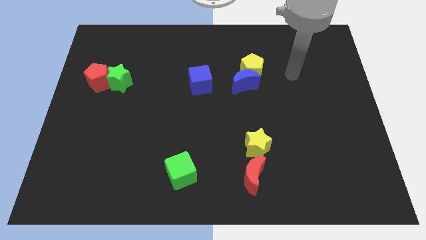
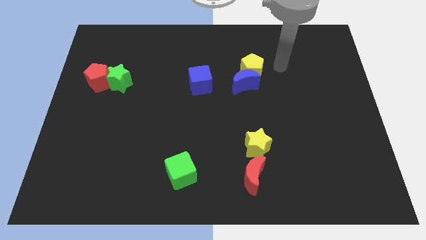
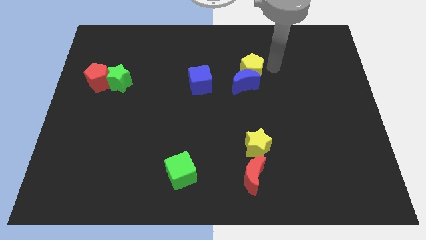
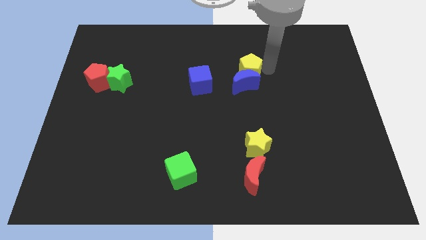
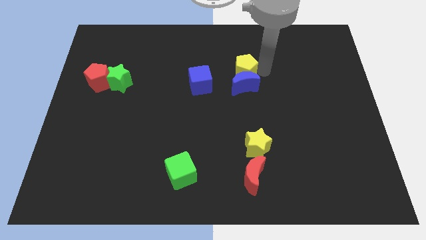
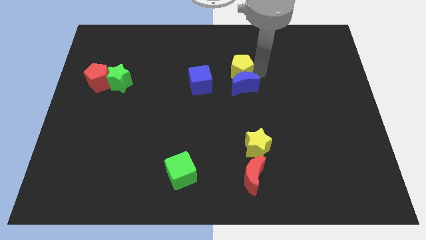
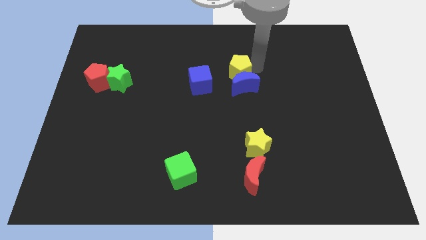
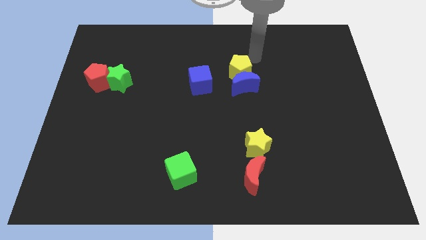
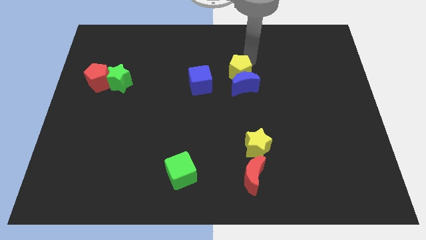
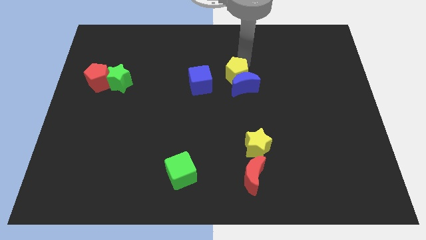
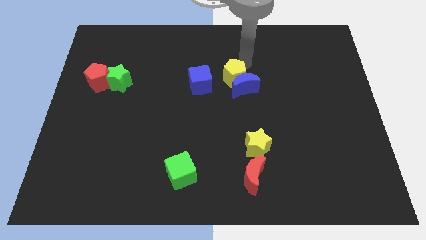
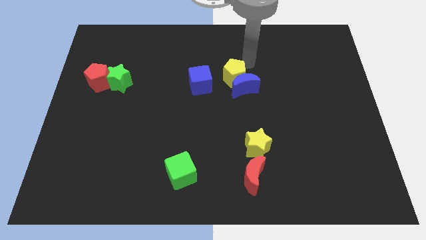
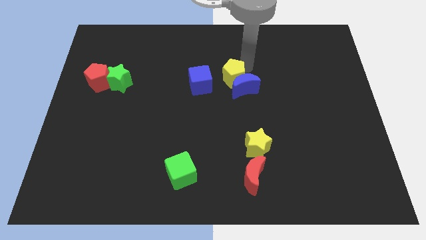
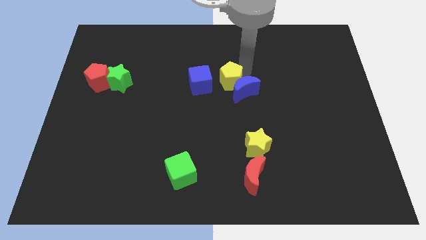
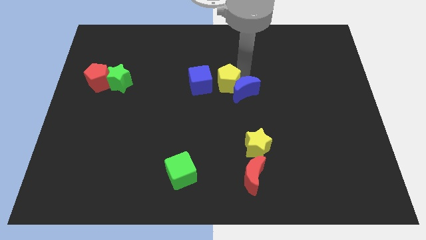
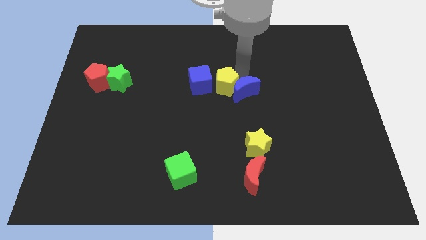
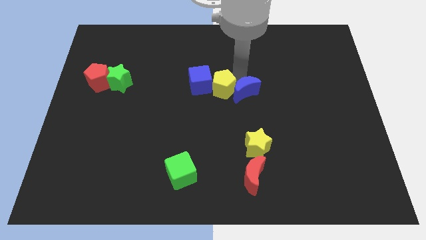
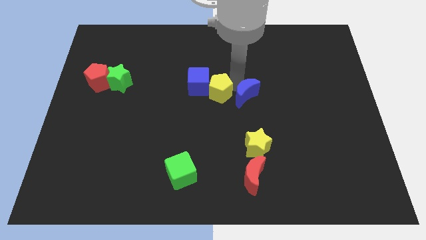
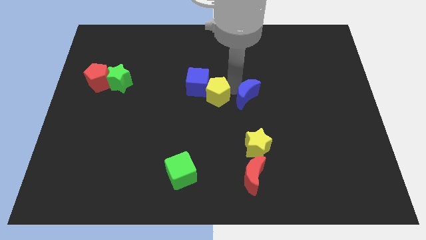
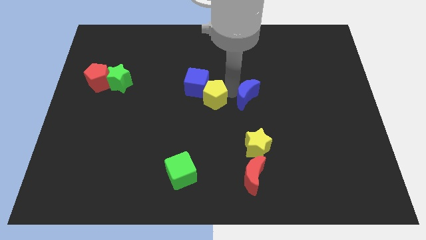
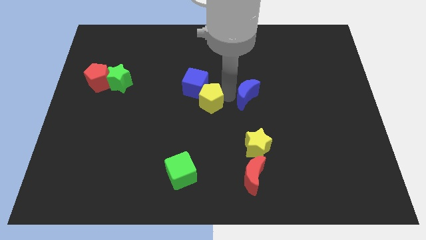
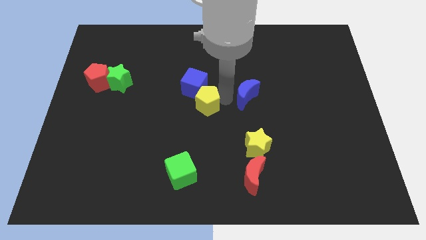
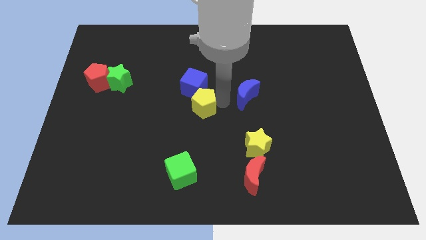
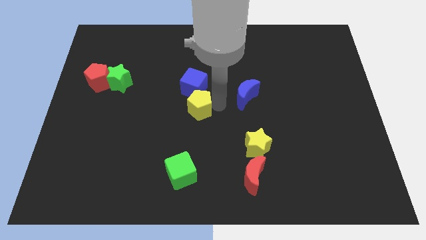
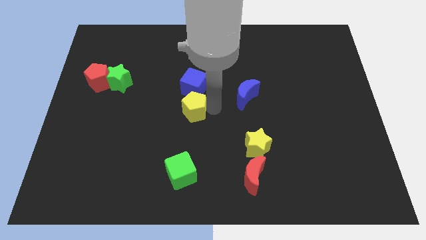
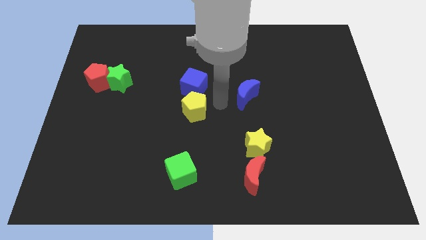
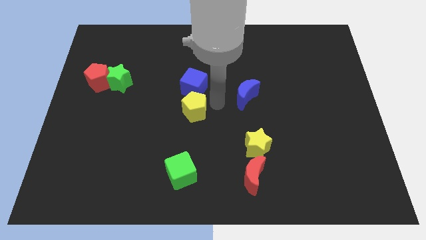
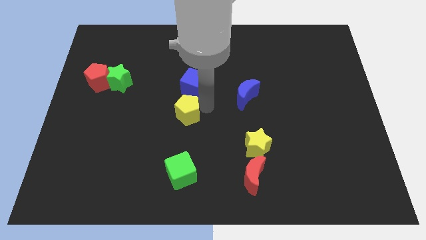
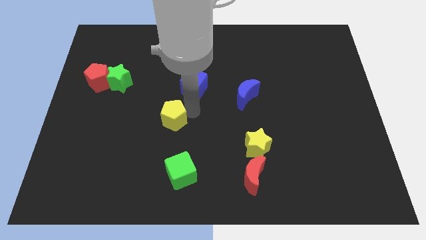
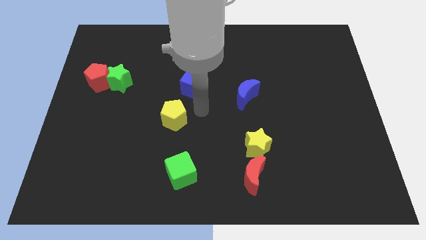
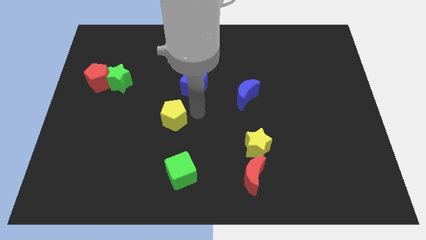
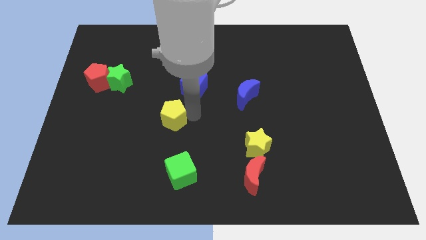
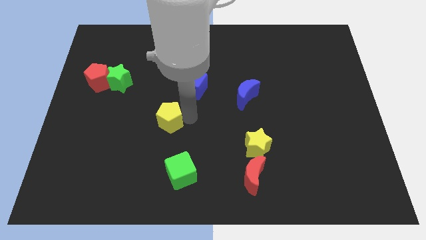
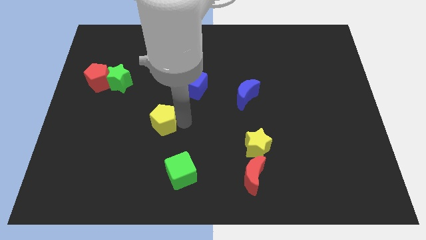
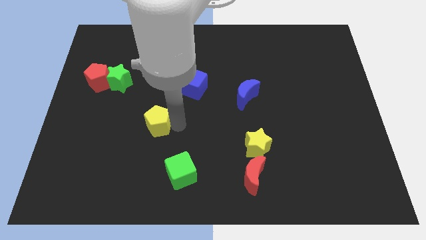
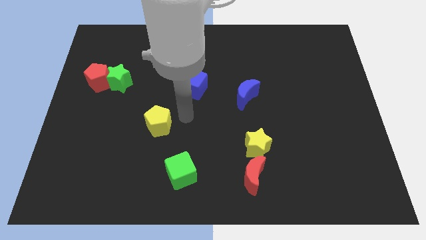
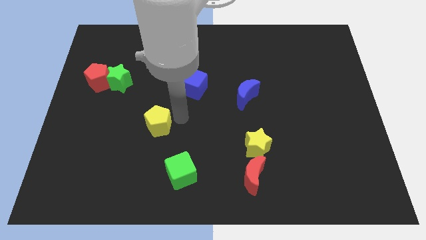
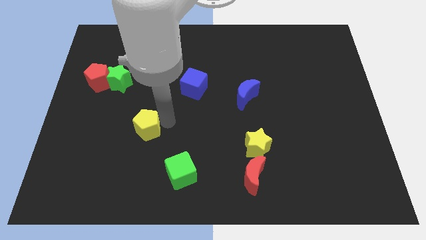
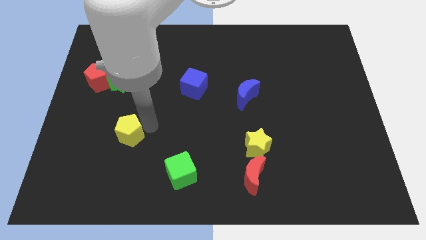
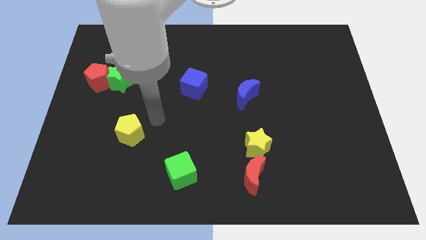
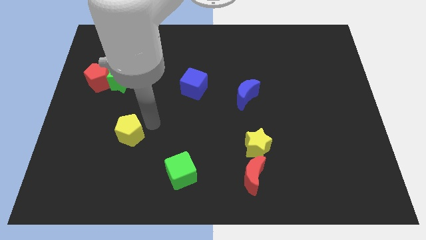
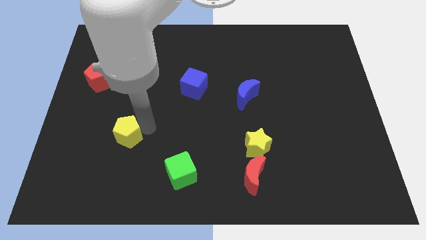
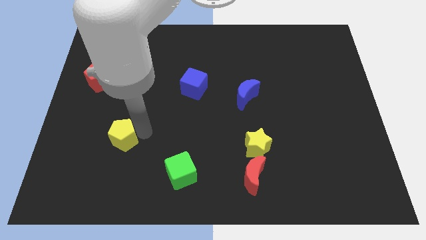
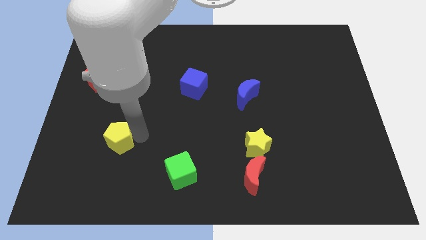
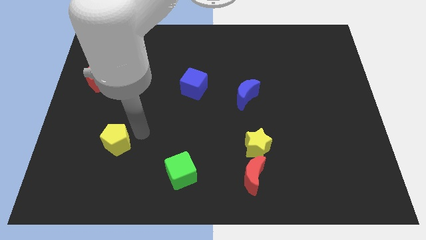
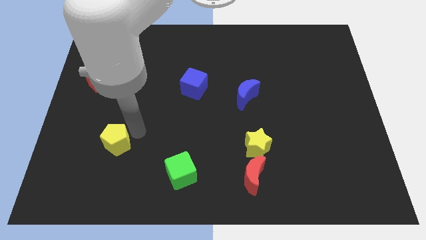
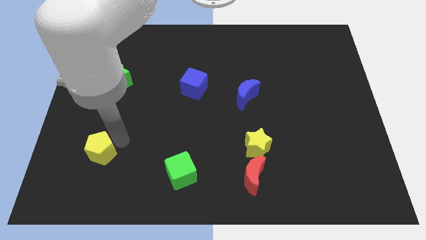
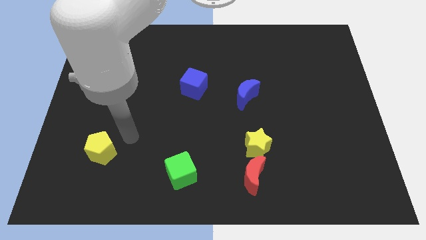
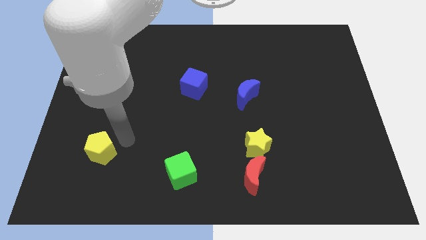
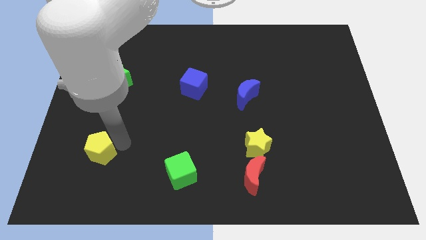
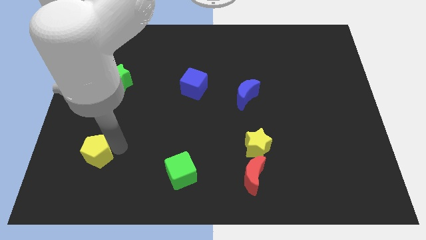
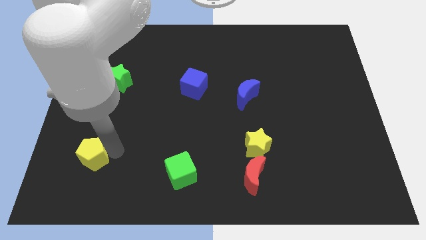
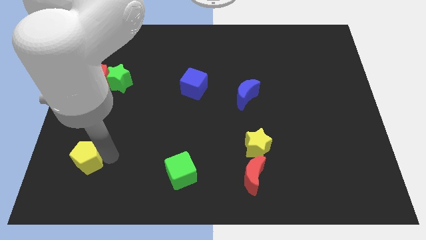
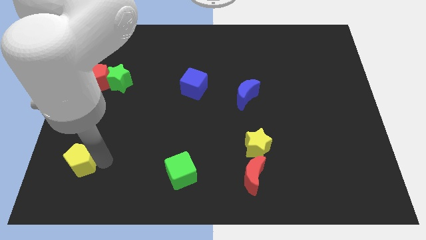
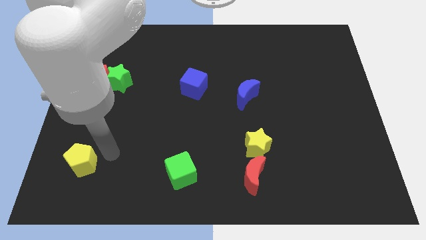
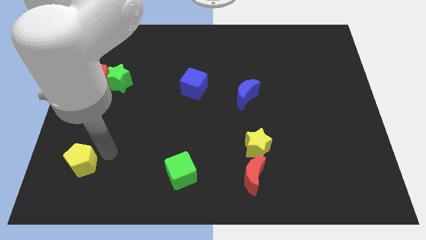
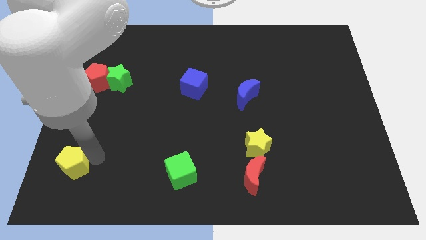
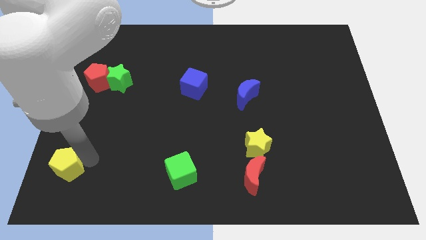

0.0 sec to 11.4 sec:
push the yellow pentagon to the lower left corner

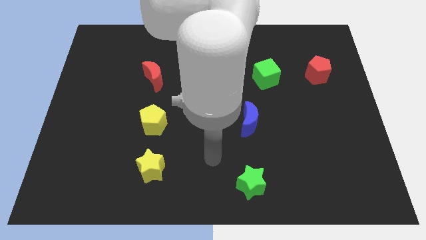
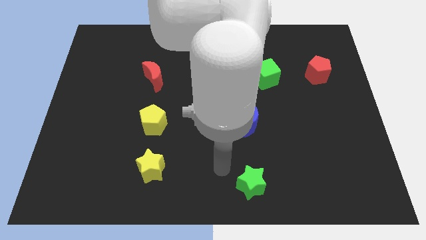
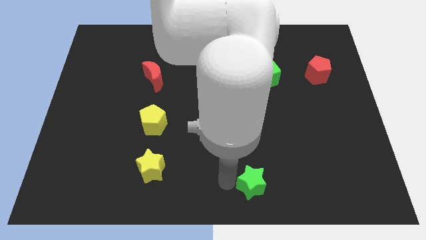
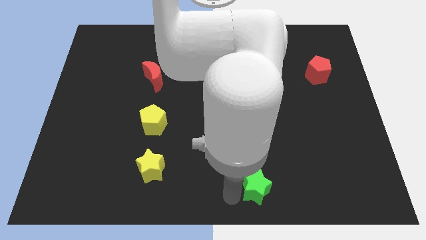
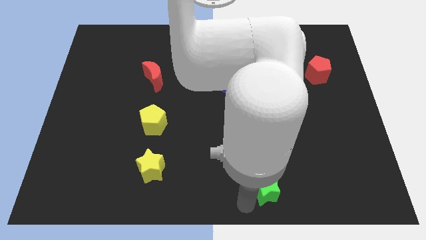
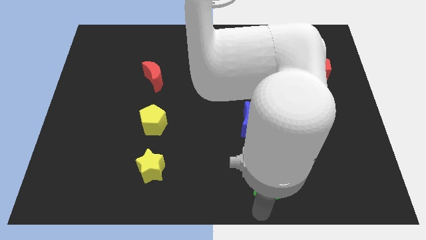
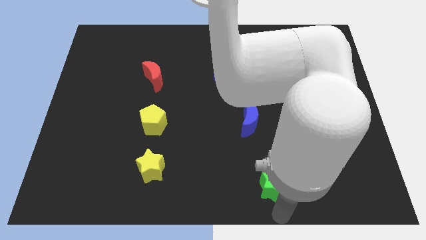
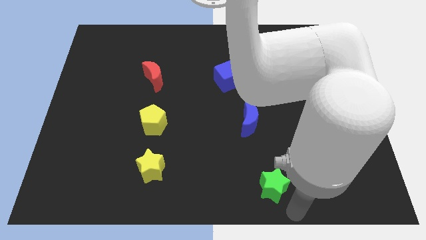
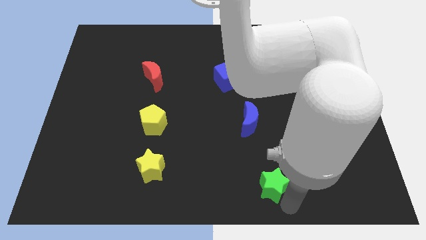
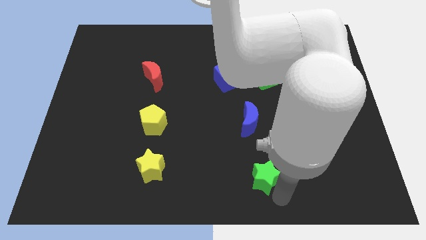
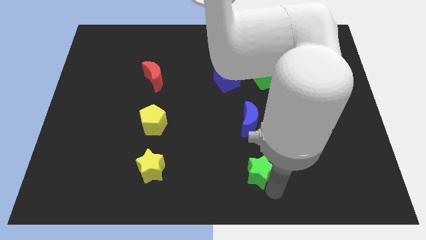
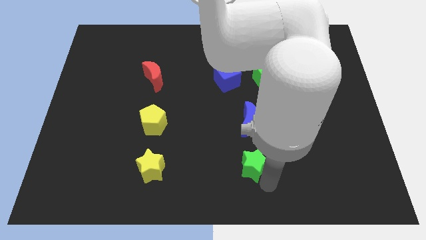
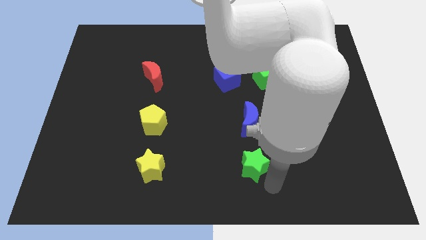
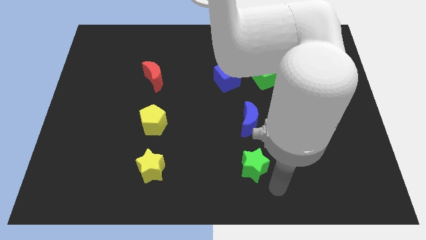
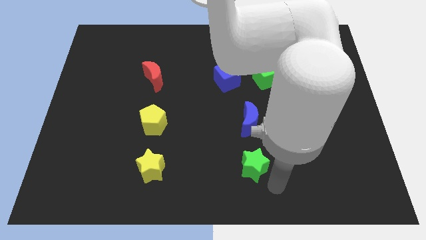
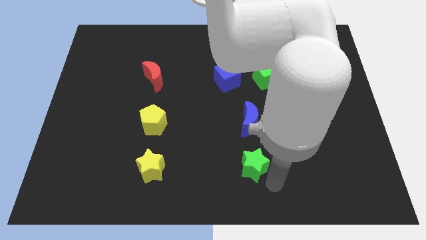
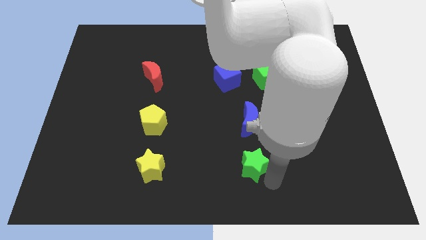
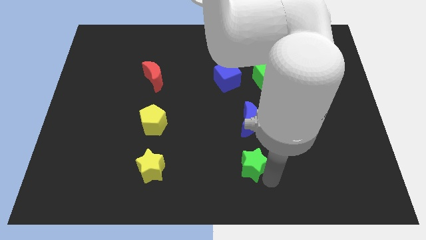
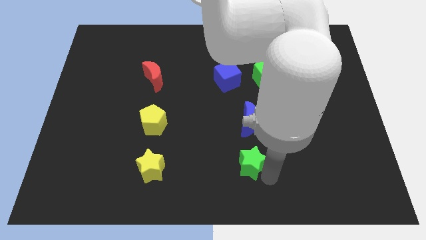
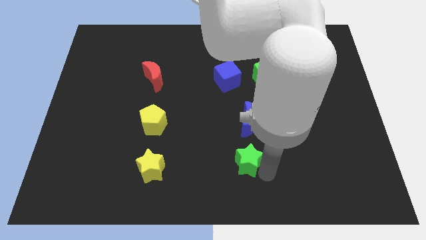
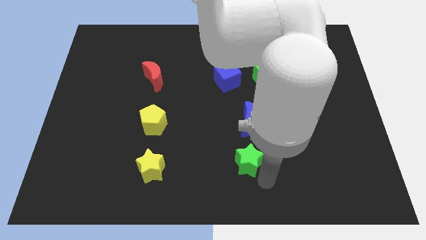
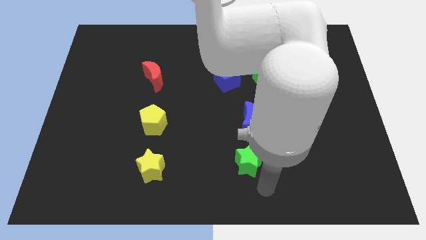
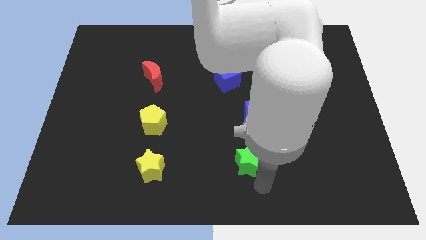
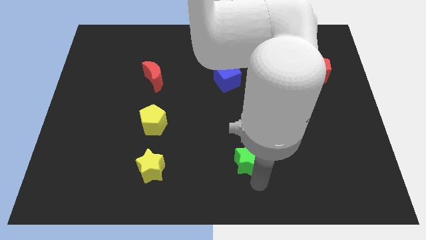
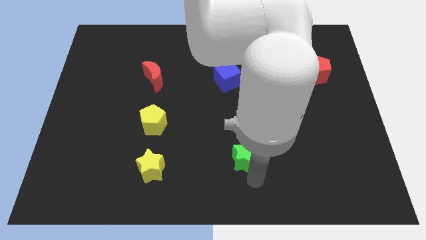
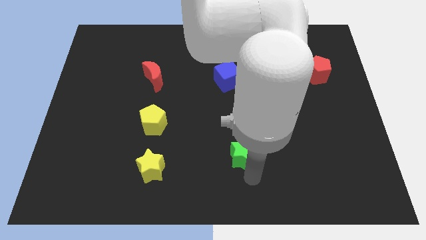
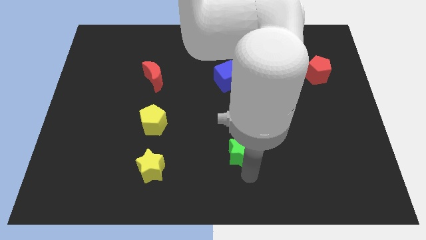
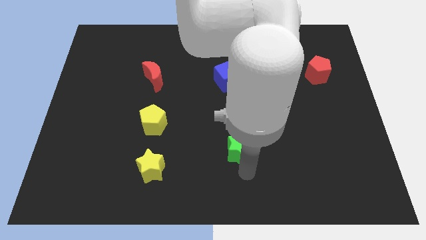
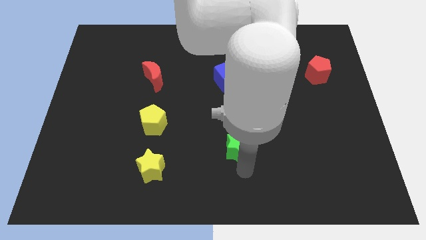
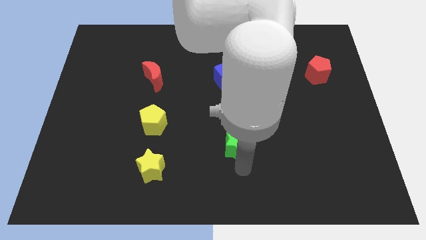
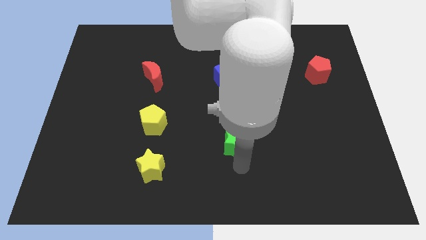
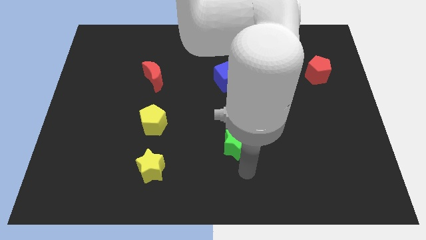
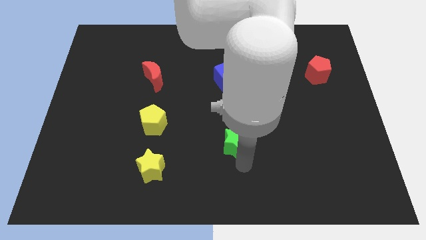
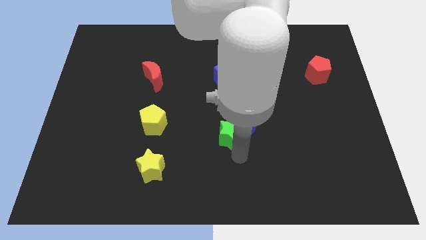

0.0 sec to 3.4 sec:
slide the green star to the center of the board
